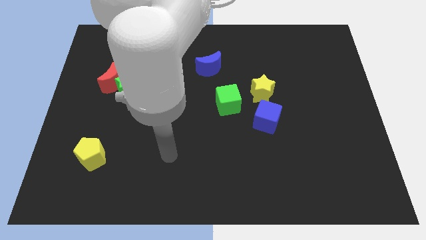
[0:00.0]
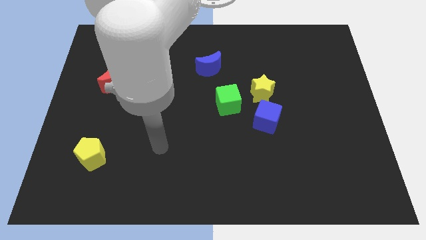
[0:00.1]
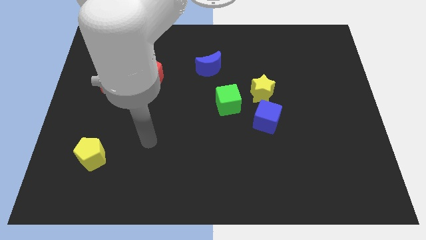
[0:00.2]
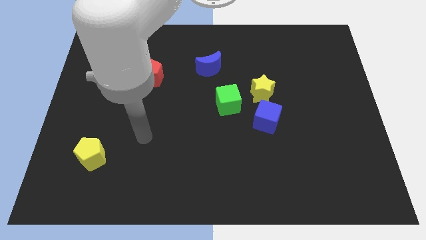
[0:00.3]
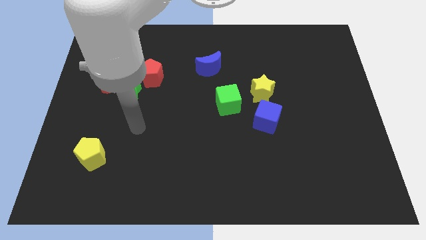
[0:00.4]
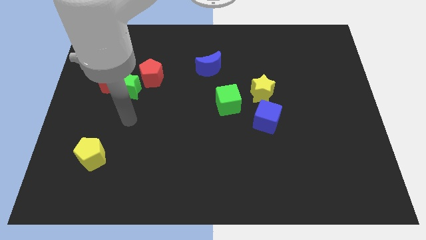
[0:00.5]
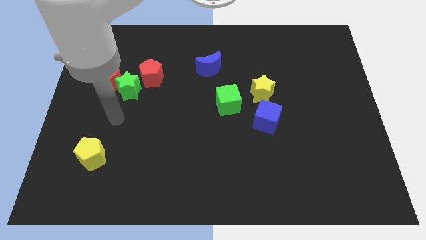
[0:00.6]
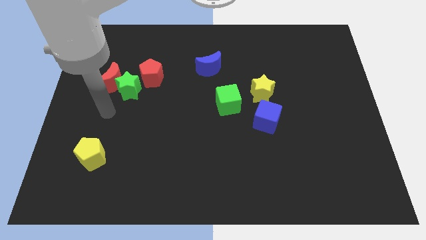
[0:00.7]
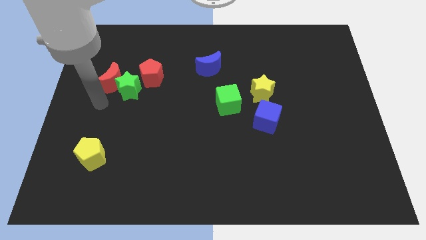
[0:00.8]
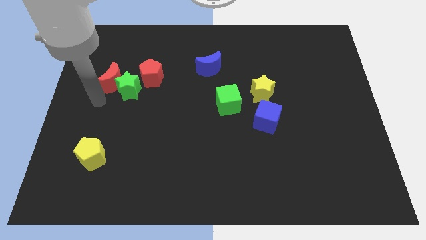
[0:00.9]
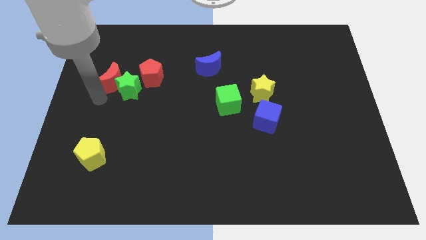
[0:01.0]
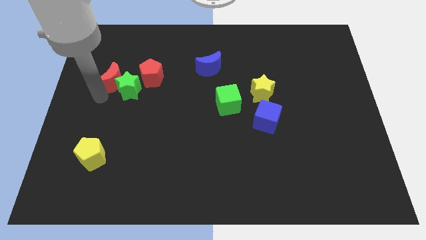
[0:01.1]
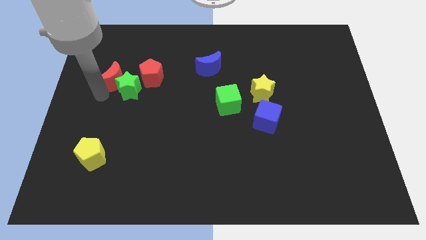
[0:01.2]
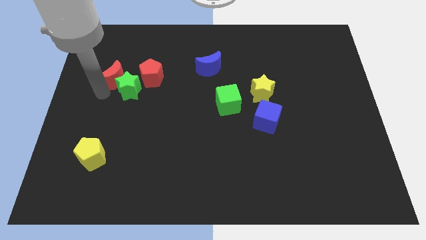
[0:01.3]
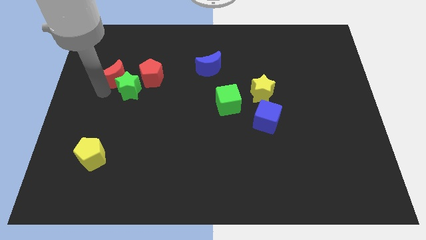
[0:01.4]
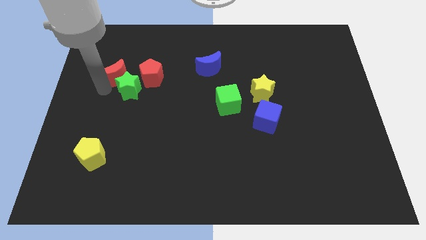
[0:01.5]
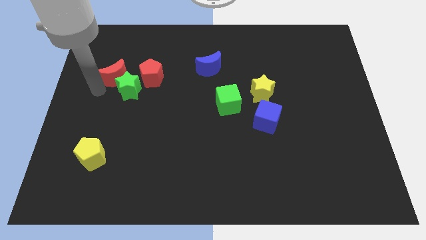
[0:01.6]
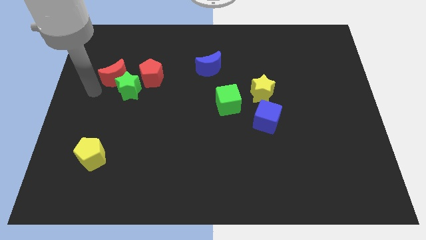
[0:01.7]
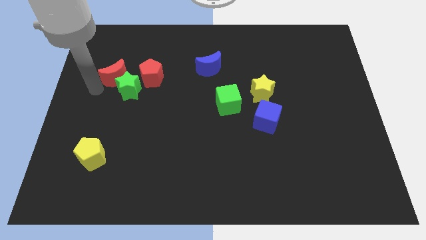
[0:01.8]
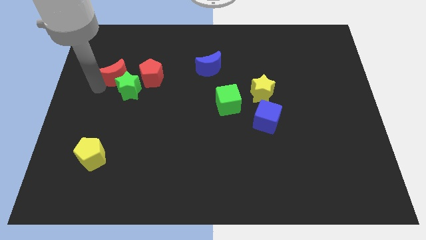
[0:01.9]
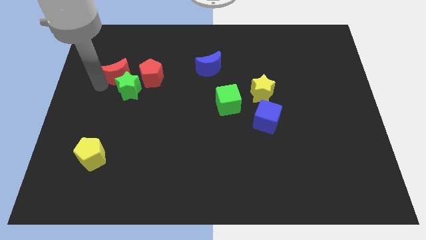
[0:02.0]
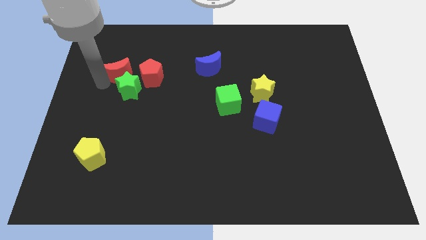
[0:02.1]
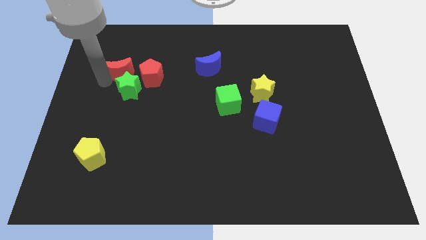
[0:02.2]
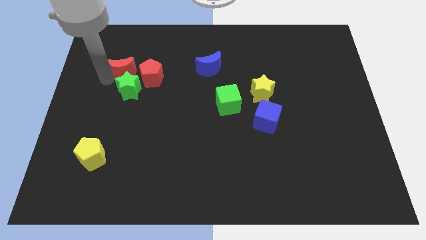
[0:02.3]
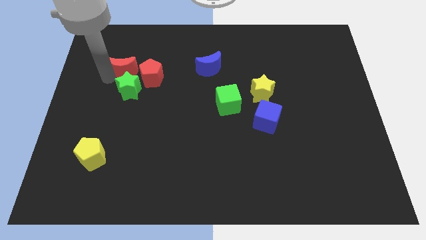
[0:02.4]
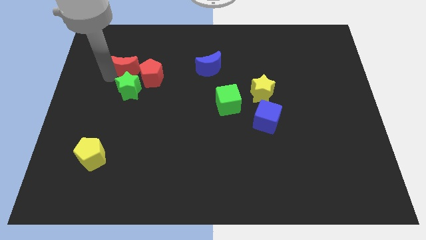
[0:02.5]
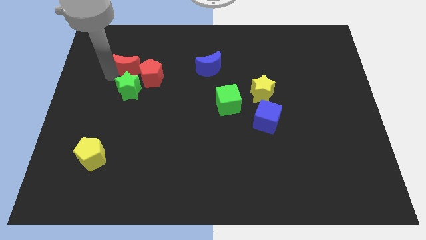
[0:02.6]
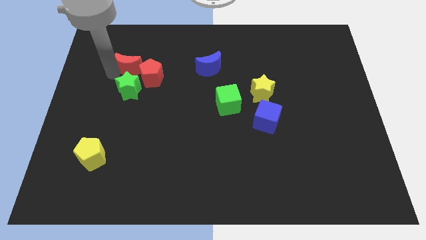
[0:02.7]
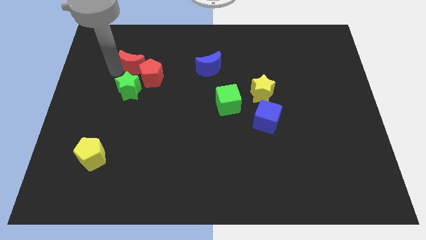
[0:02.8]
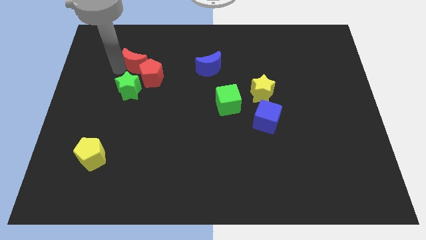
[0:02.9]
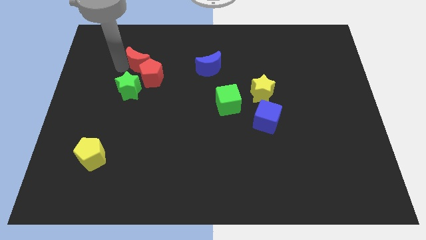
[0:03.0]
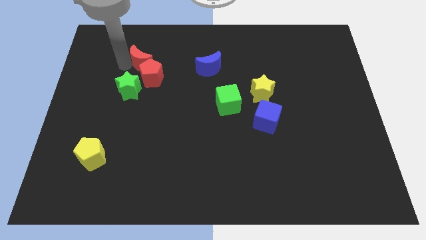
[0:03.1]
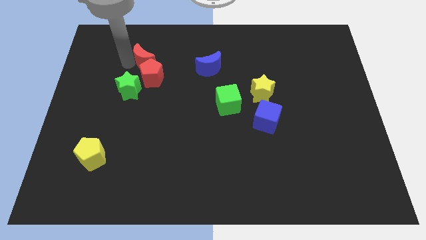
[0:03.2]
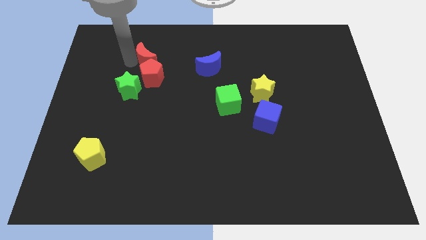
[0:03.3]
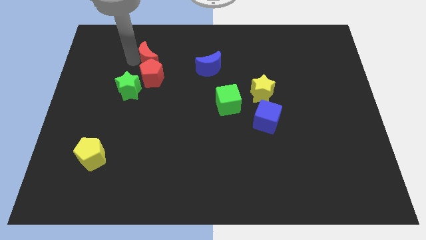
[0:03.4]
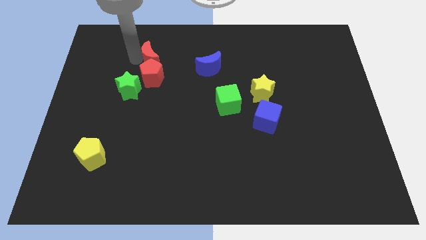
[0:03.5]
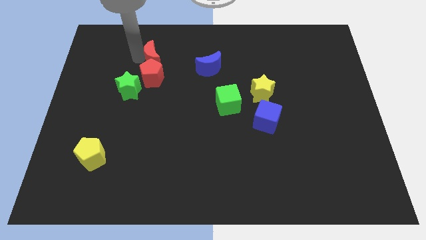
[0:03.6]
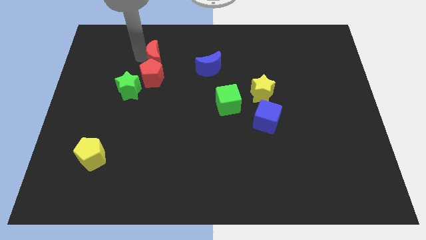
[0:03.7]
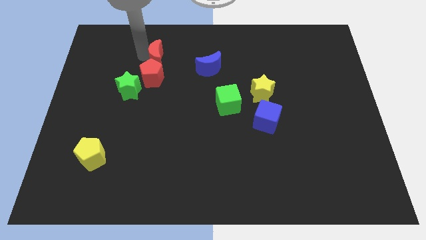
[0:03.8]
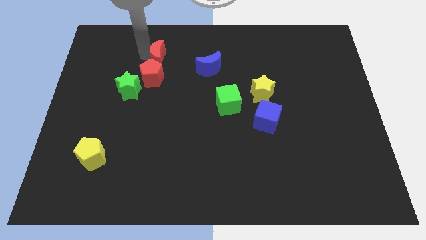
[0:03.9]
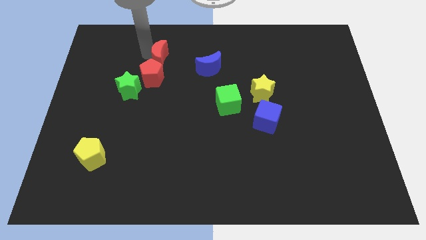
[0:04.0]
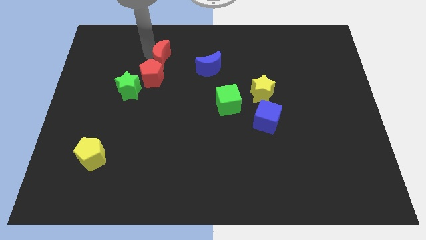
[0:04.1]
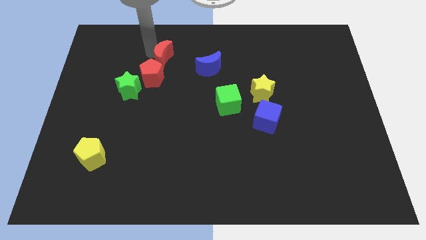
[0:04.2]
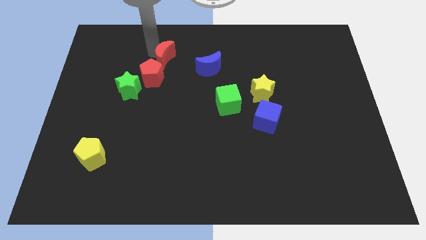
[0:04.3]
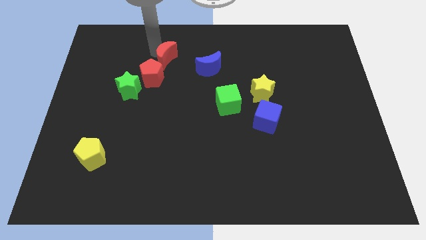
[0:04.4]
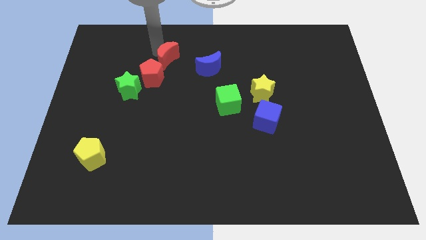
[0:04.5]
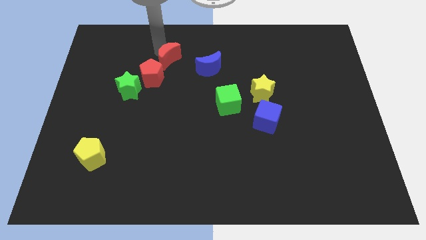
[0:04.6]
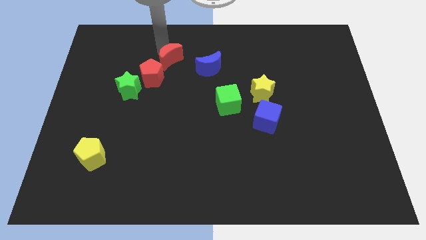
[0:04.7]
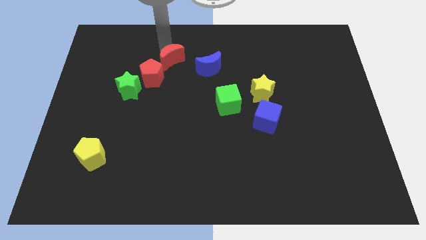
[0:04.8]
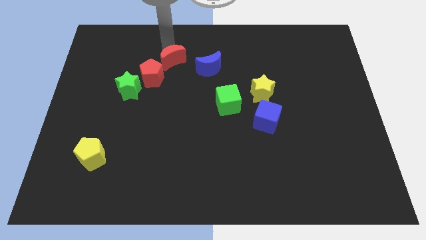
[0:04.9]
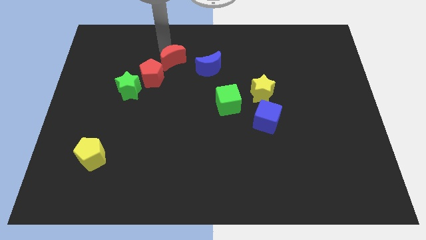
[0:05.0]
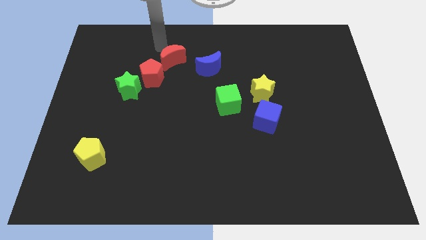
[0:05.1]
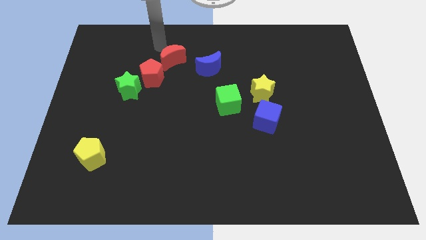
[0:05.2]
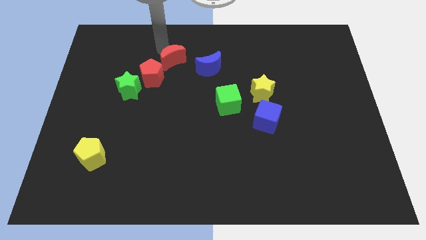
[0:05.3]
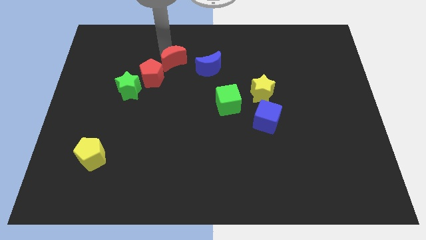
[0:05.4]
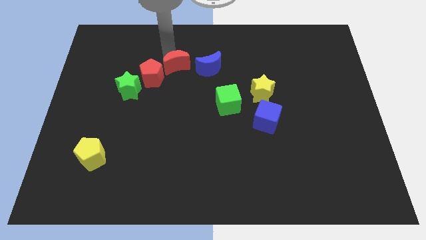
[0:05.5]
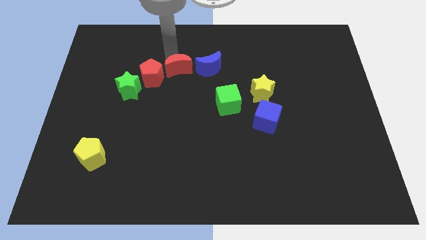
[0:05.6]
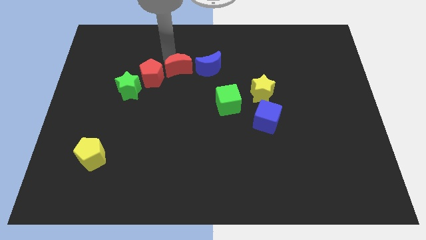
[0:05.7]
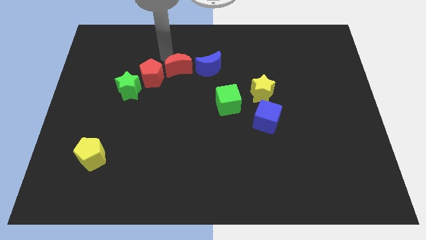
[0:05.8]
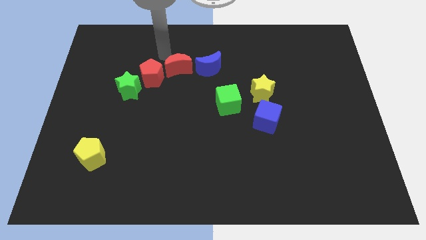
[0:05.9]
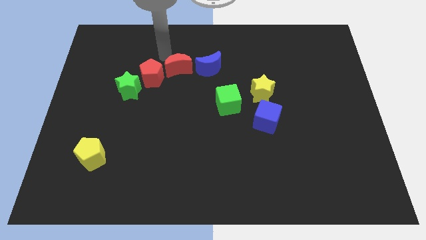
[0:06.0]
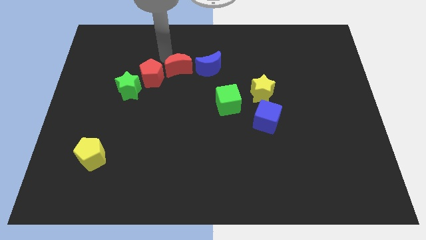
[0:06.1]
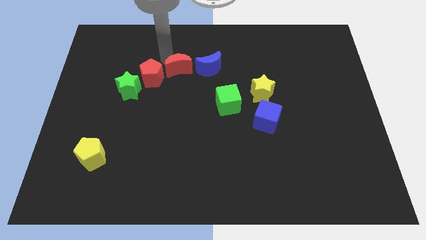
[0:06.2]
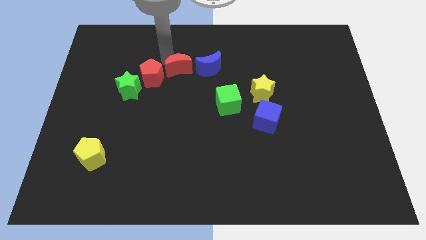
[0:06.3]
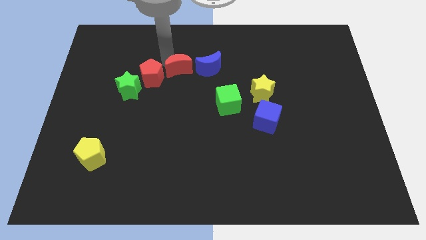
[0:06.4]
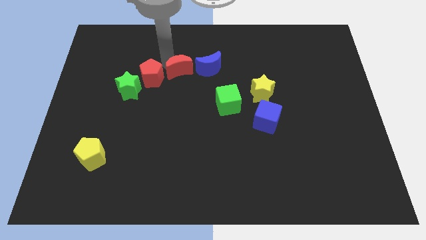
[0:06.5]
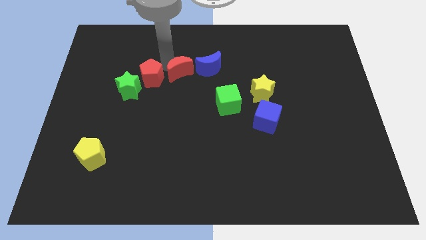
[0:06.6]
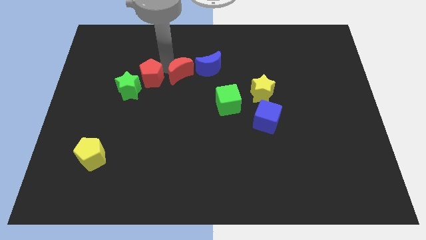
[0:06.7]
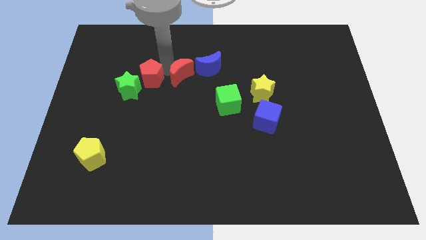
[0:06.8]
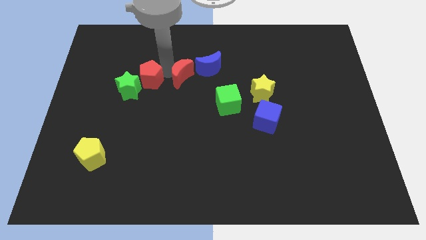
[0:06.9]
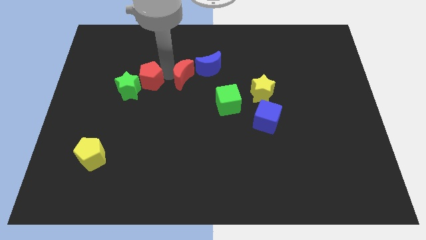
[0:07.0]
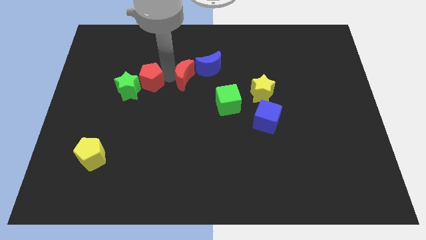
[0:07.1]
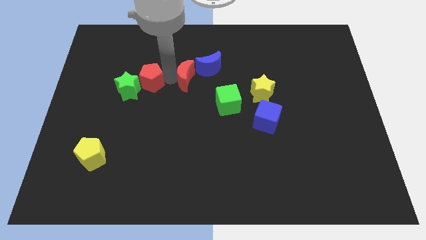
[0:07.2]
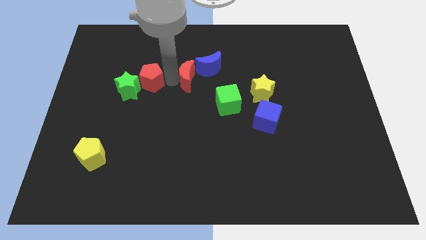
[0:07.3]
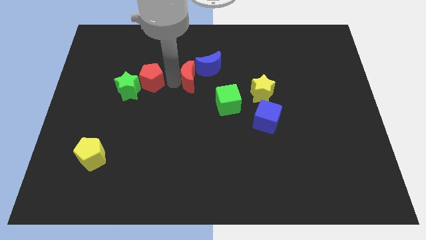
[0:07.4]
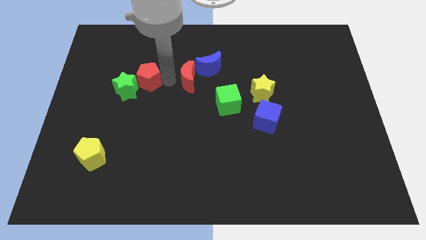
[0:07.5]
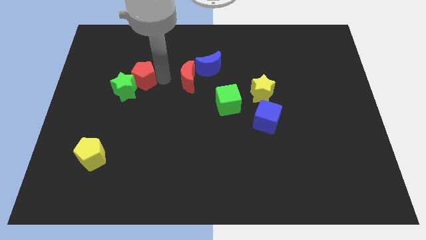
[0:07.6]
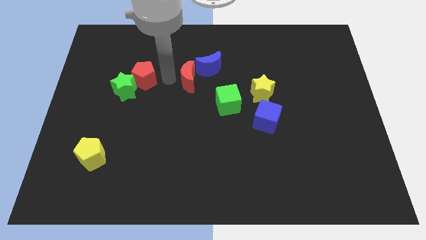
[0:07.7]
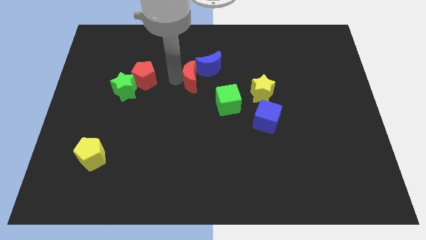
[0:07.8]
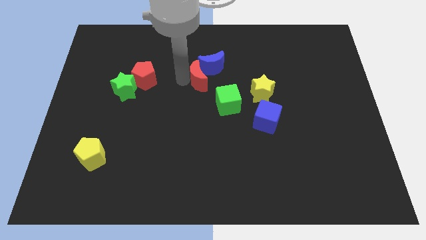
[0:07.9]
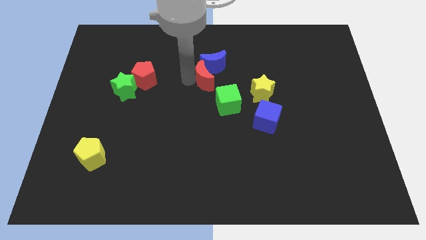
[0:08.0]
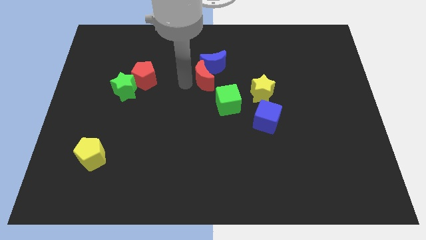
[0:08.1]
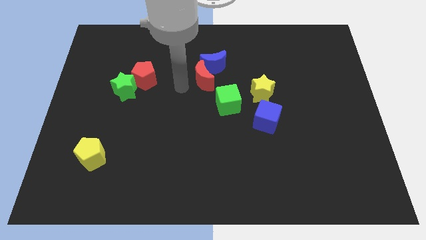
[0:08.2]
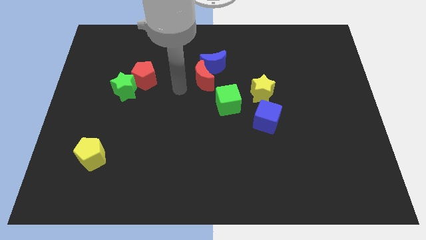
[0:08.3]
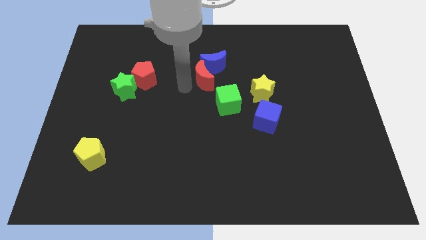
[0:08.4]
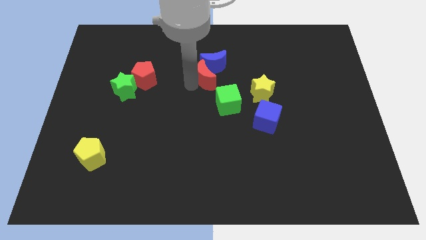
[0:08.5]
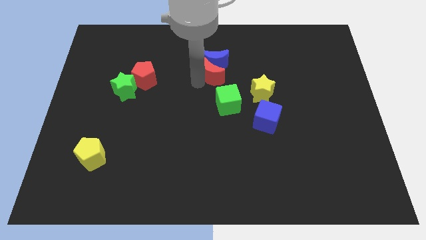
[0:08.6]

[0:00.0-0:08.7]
move the red moon to the top of the green cube
